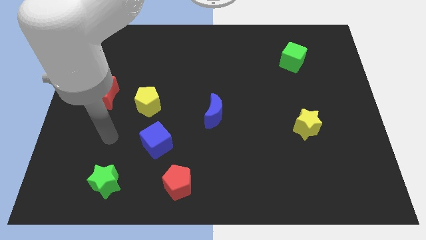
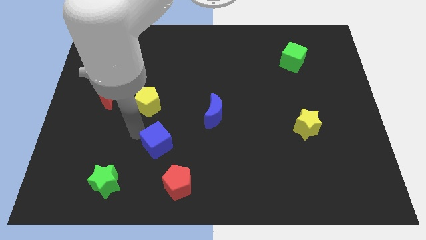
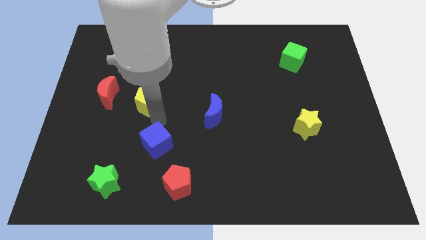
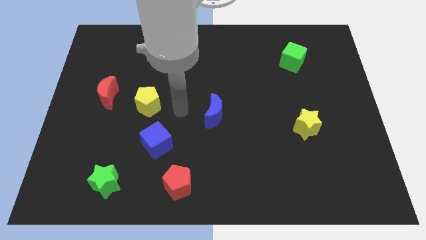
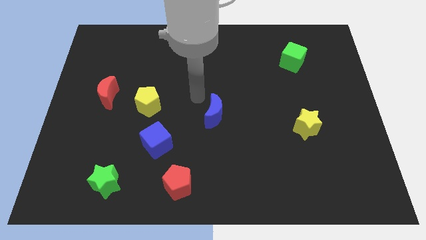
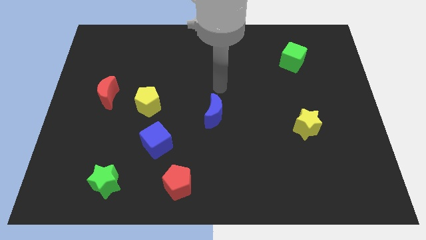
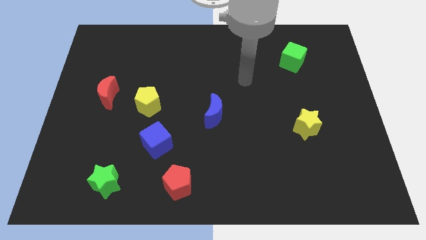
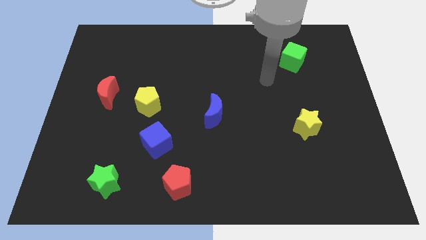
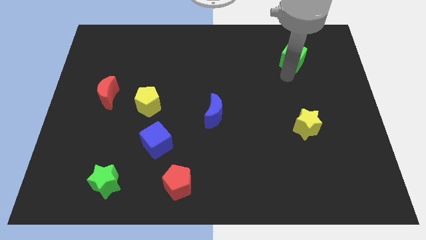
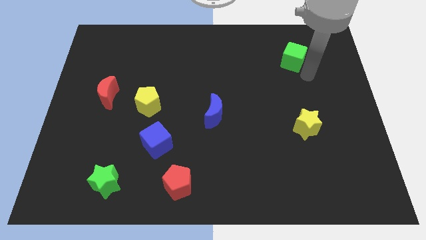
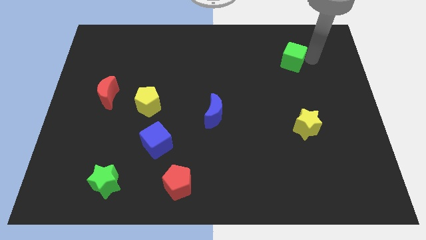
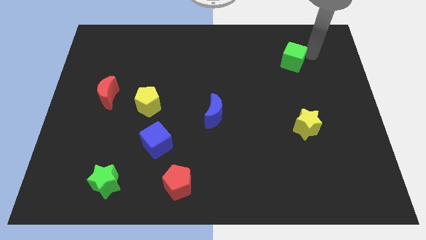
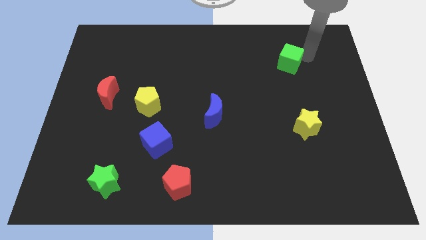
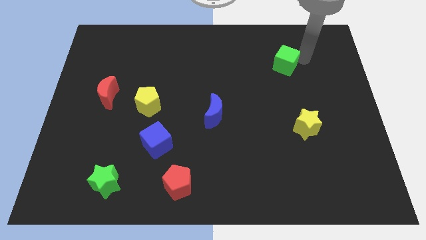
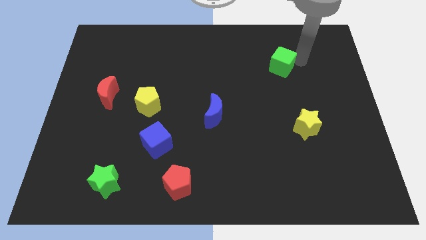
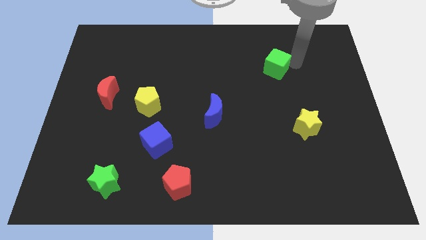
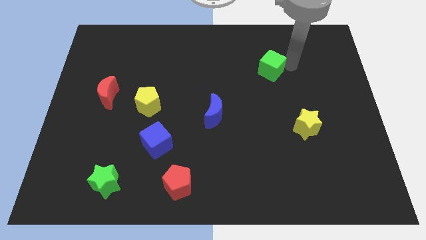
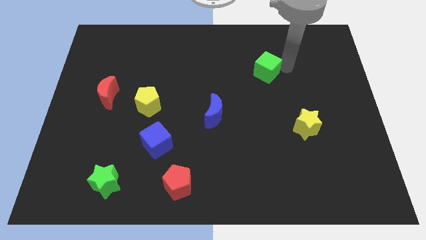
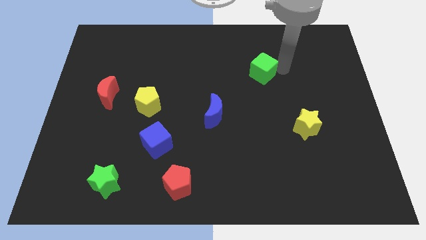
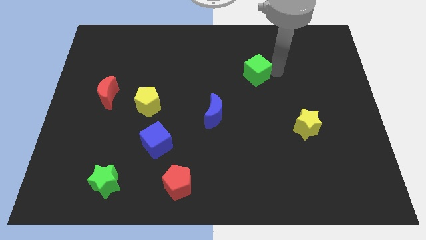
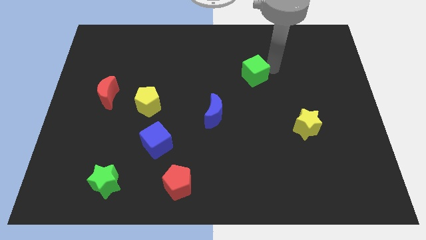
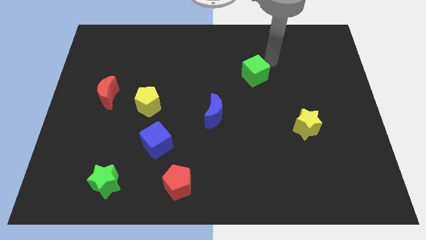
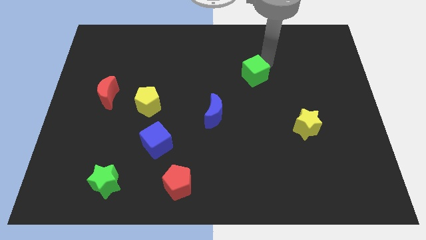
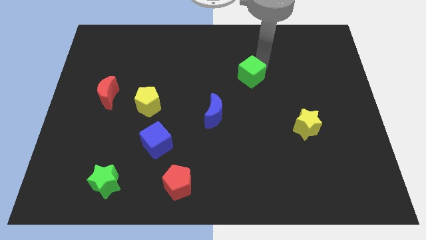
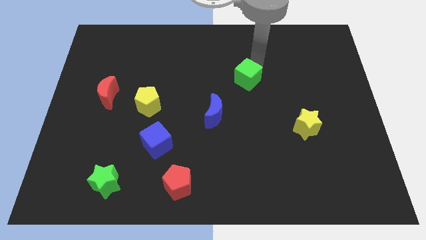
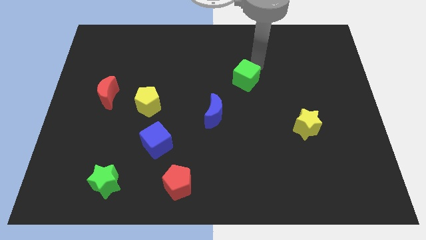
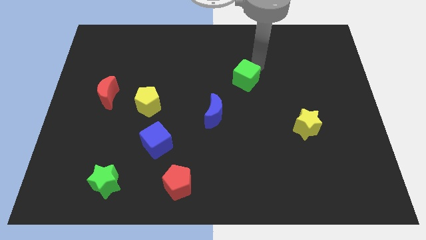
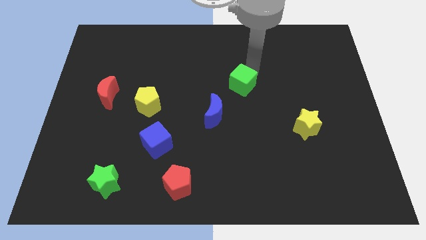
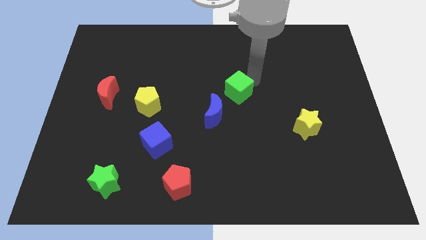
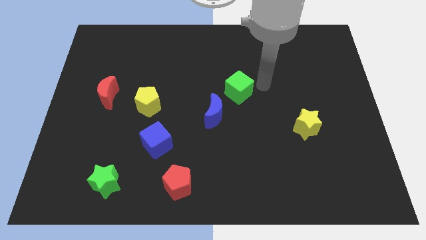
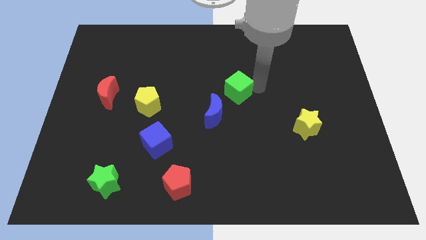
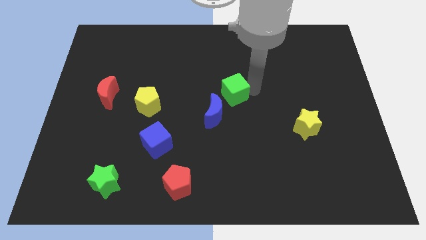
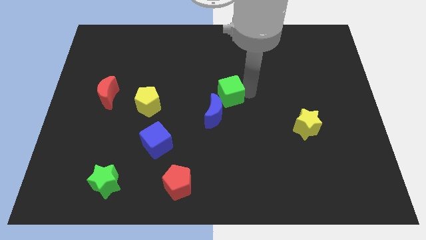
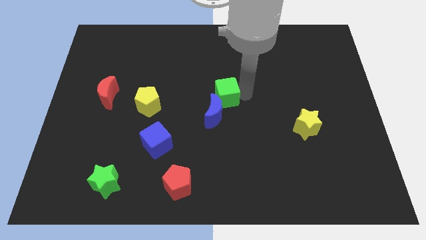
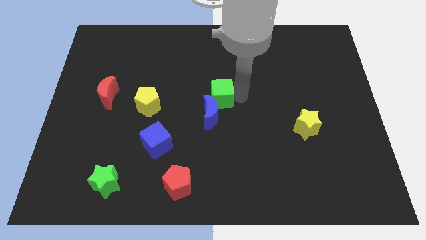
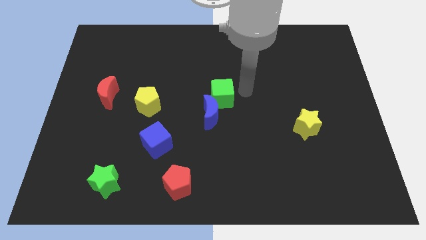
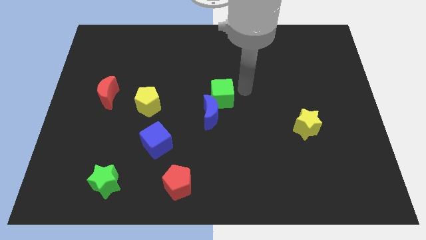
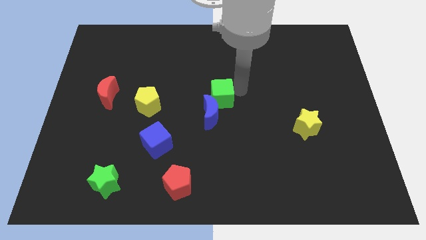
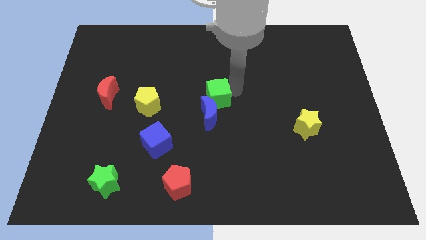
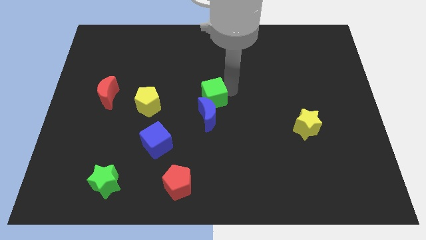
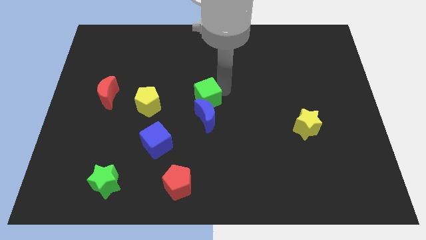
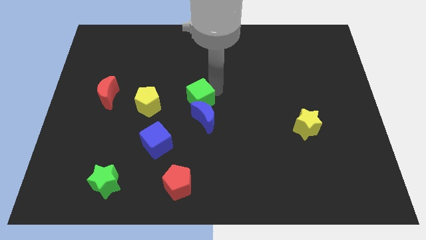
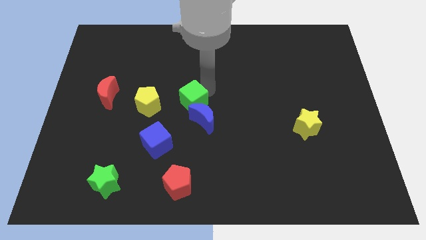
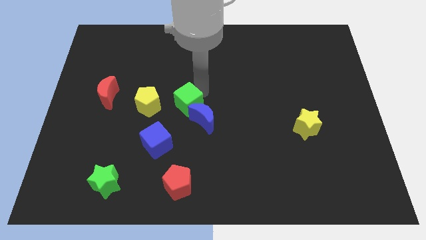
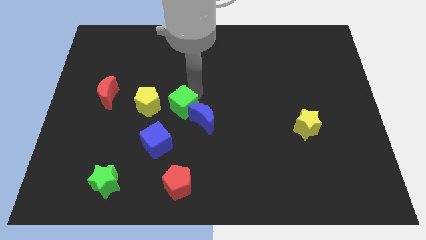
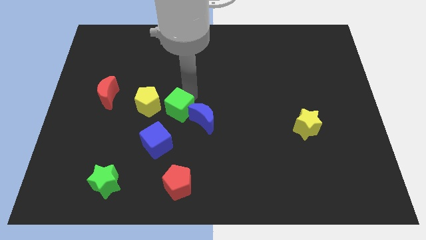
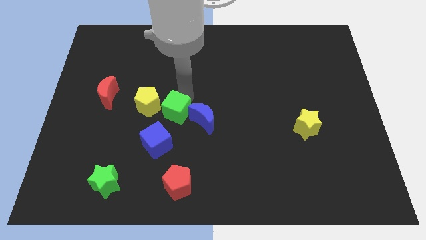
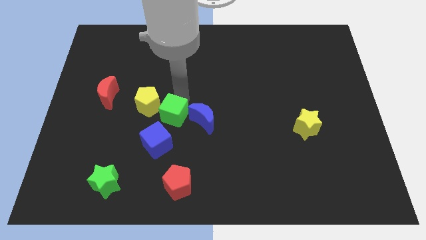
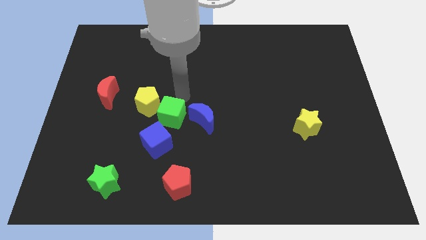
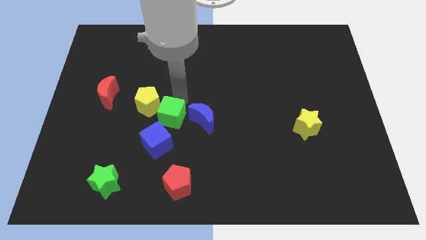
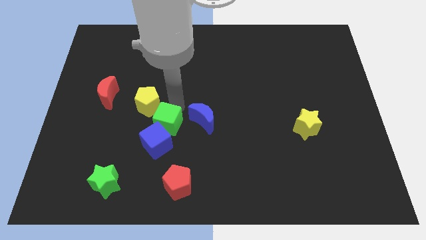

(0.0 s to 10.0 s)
push the green cube next to the blue cube

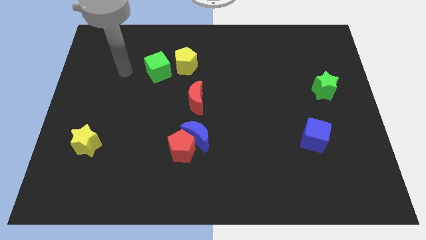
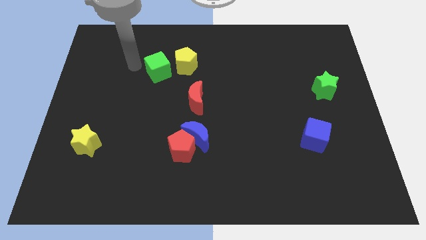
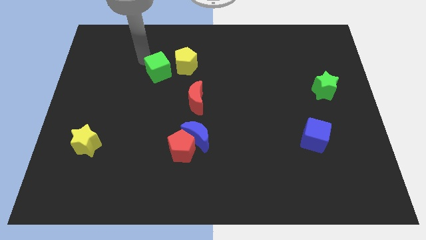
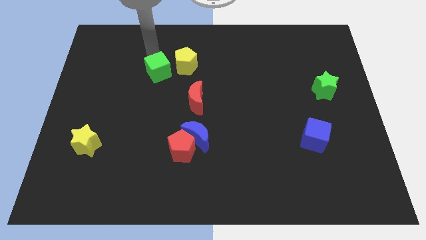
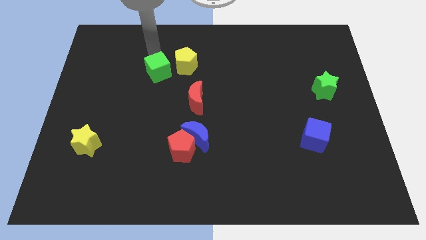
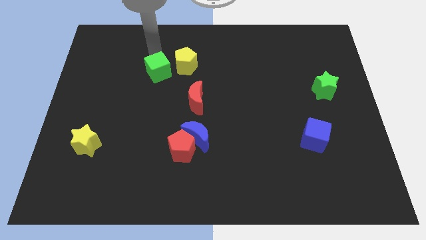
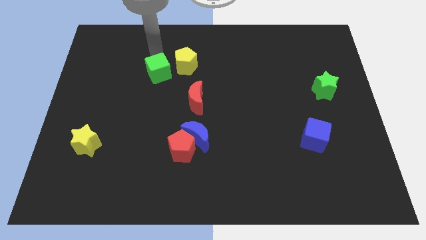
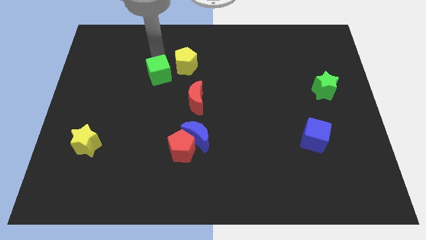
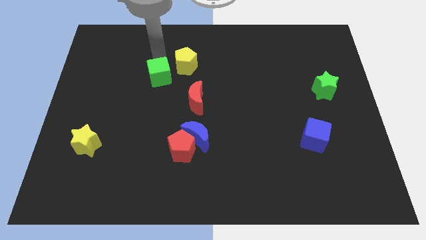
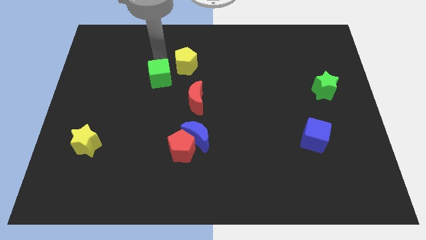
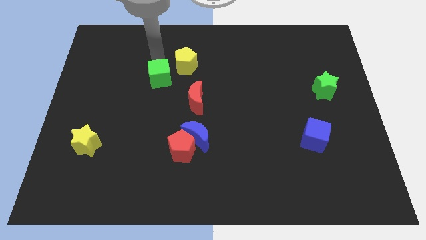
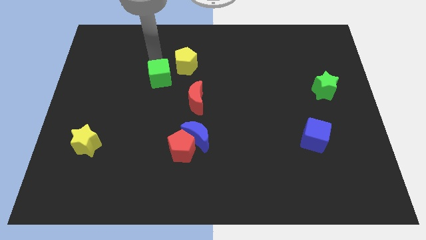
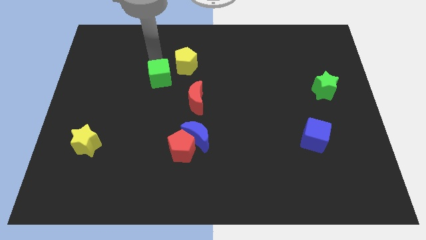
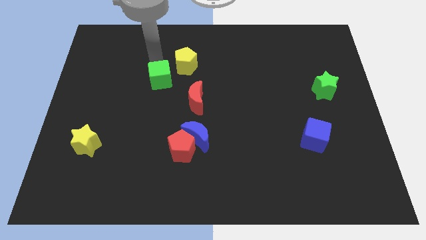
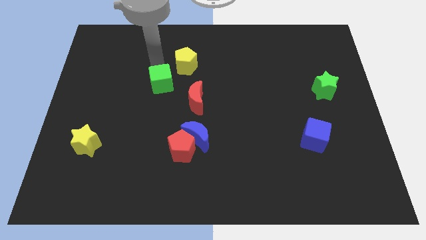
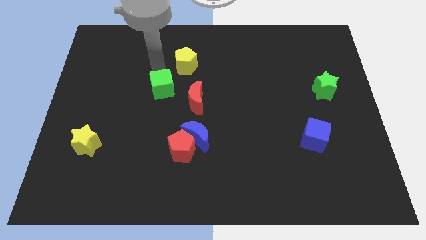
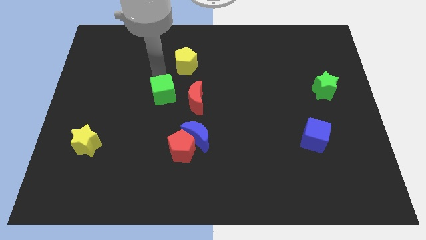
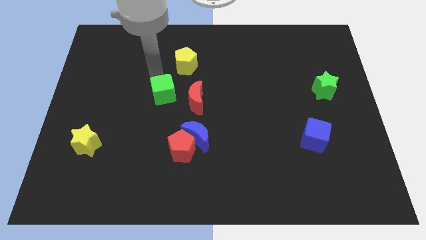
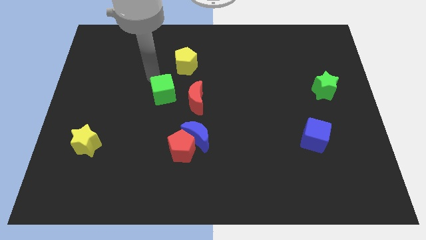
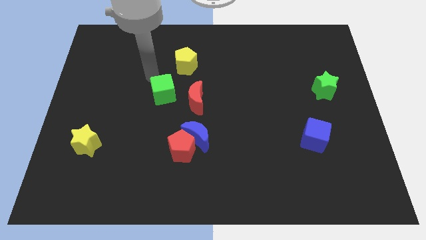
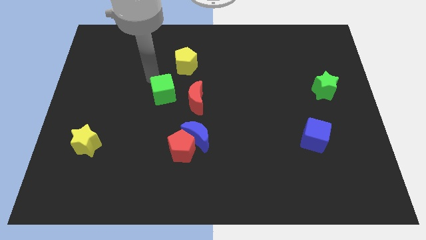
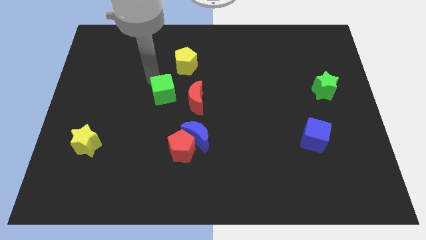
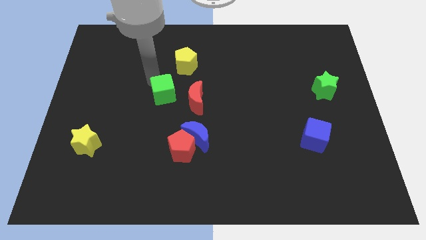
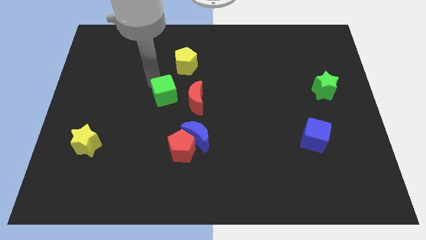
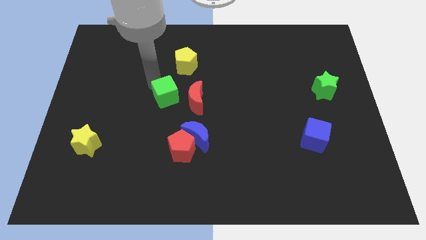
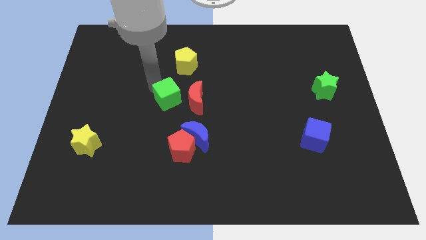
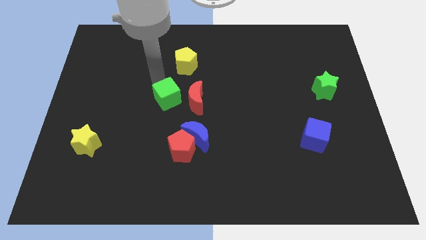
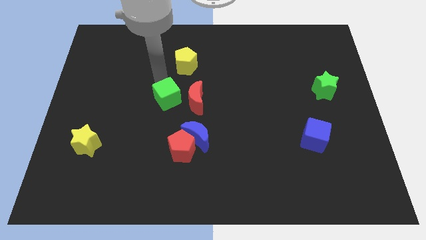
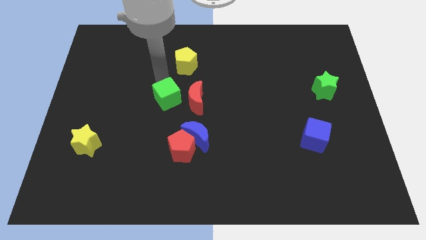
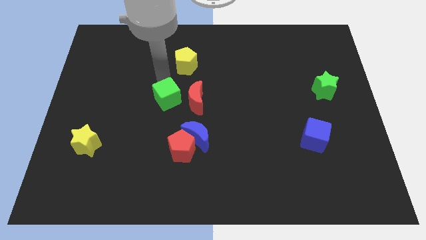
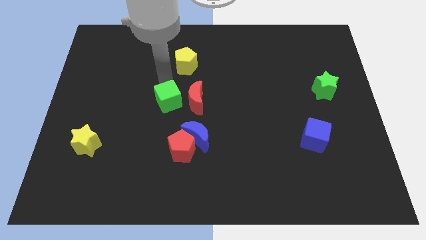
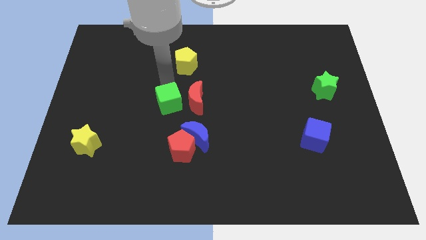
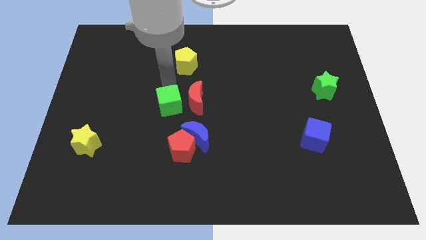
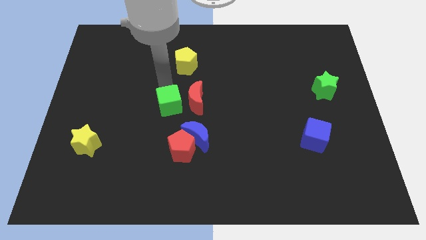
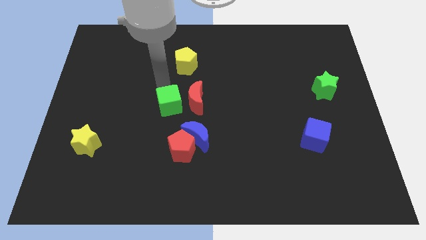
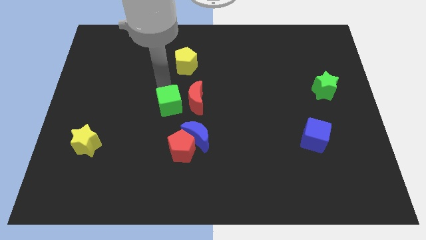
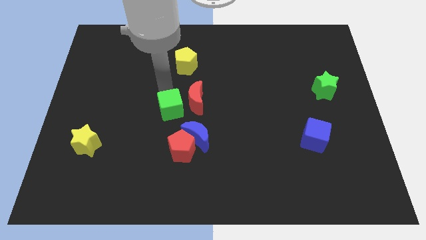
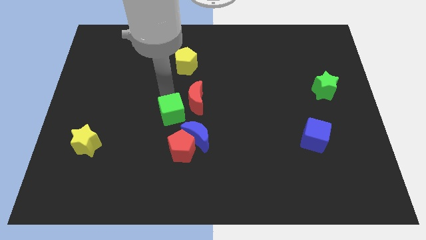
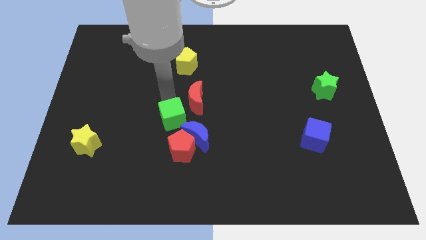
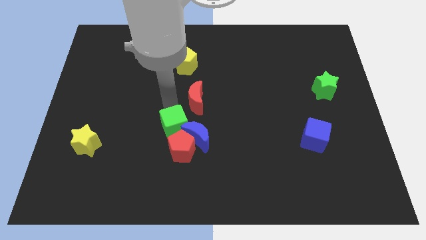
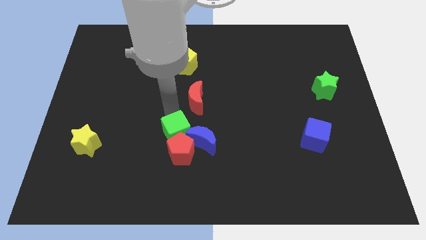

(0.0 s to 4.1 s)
put the green cube close to the red pentagon
